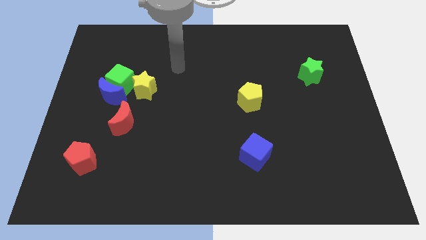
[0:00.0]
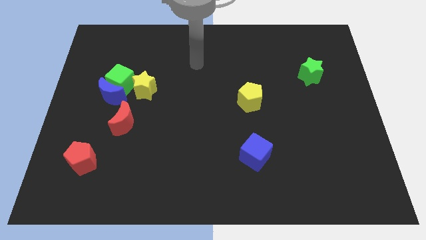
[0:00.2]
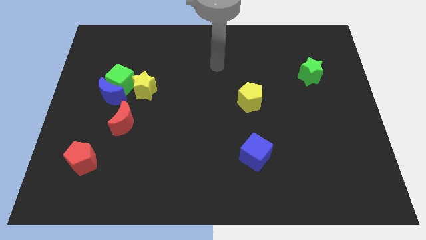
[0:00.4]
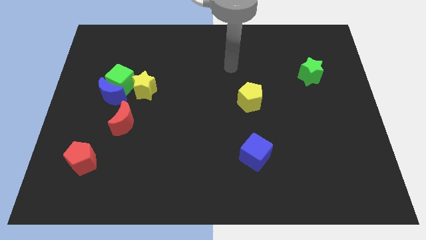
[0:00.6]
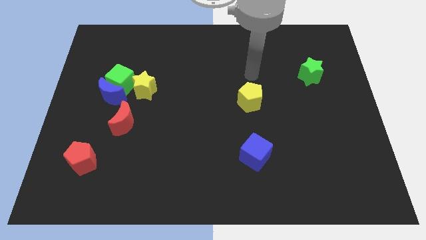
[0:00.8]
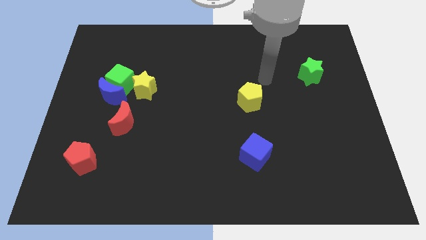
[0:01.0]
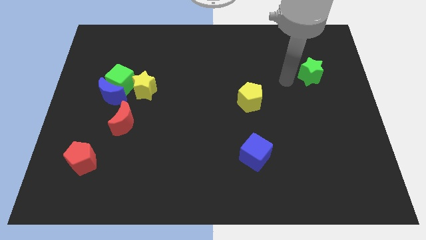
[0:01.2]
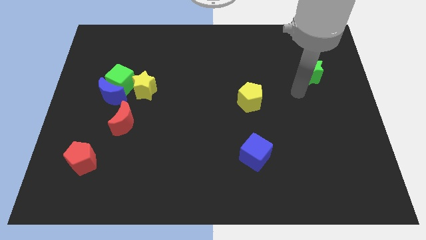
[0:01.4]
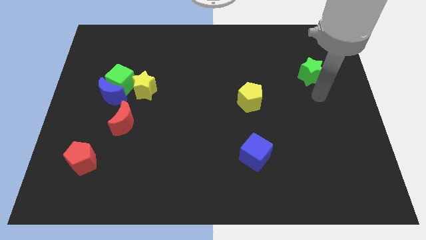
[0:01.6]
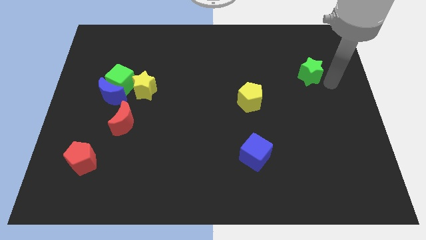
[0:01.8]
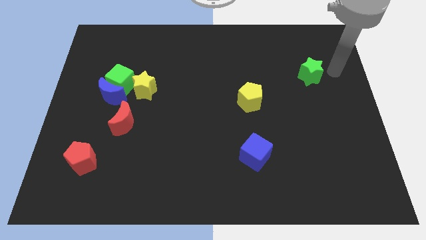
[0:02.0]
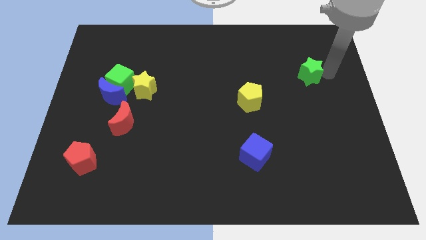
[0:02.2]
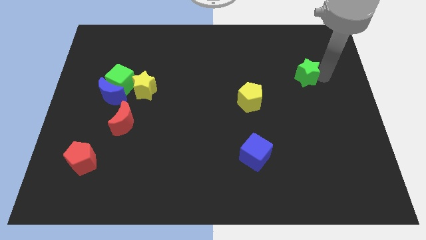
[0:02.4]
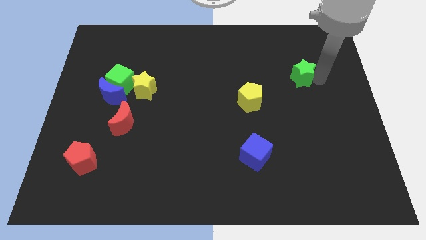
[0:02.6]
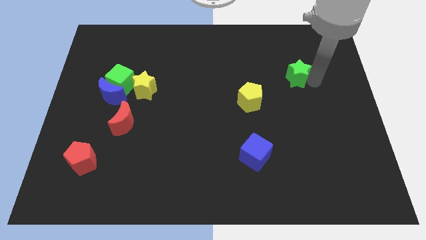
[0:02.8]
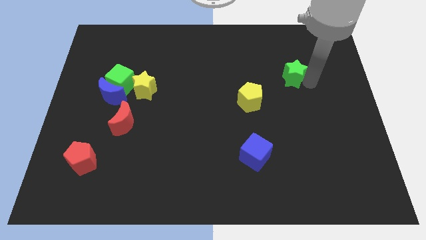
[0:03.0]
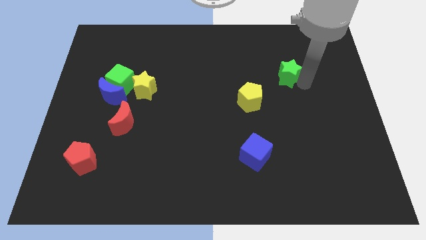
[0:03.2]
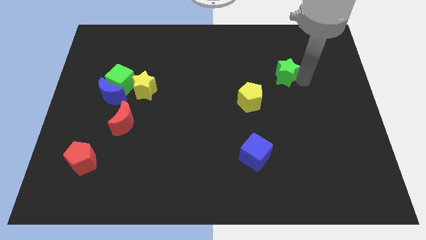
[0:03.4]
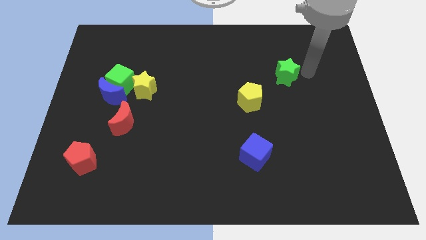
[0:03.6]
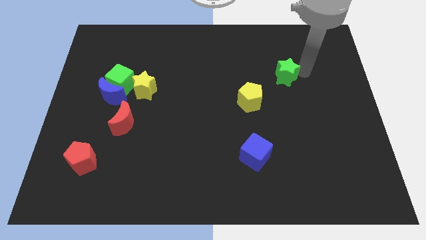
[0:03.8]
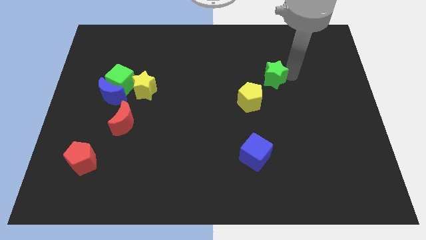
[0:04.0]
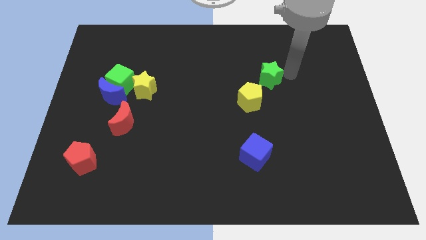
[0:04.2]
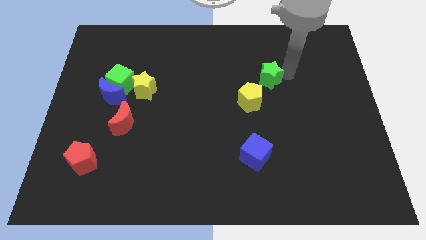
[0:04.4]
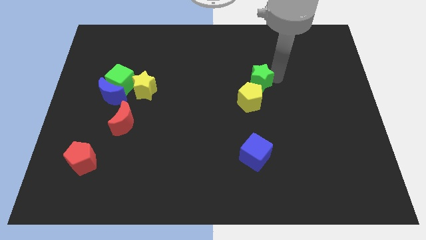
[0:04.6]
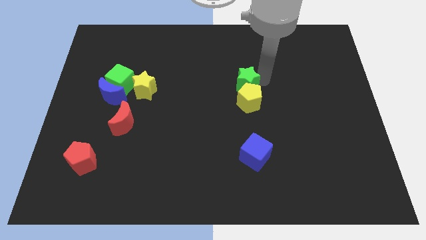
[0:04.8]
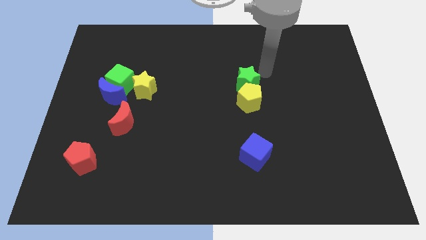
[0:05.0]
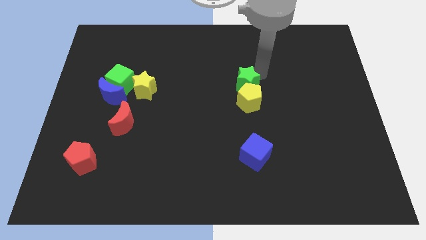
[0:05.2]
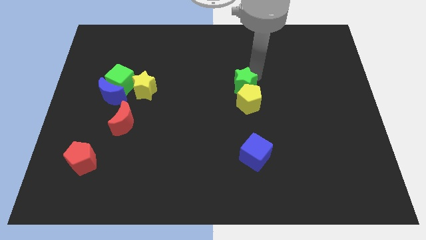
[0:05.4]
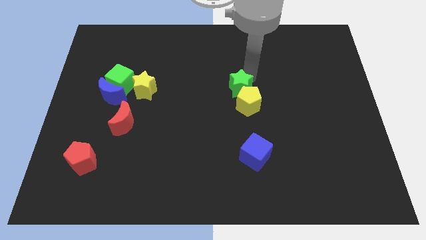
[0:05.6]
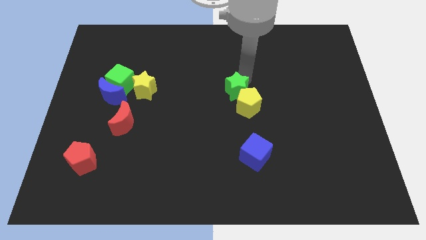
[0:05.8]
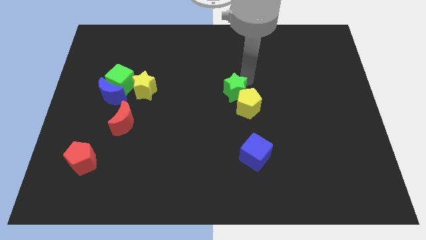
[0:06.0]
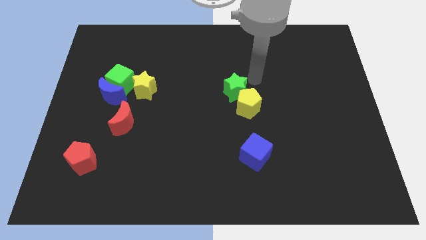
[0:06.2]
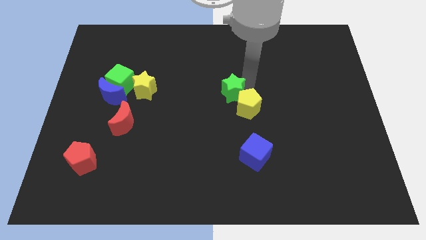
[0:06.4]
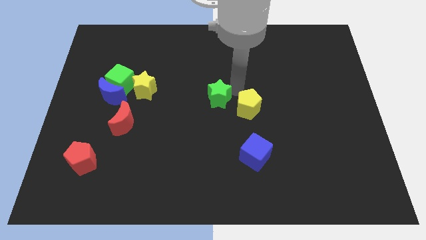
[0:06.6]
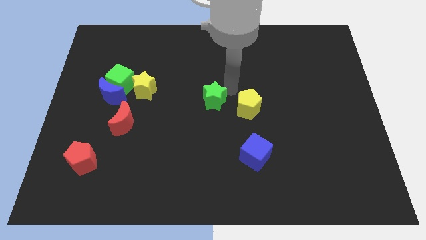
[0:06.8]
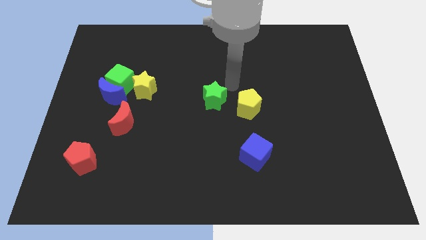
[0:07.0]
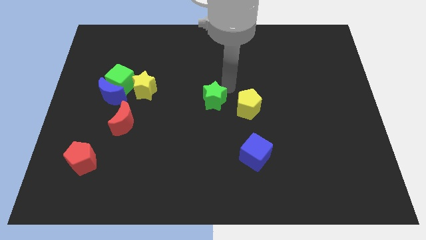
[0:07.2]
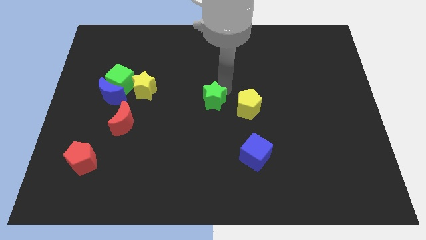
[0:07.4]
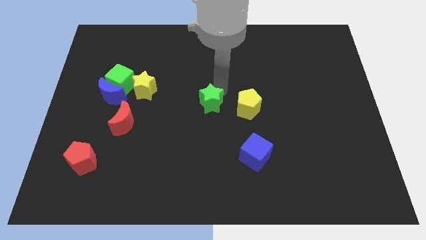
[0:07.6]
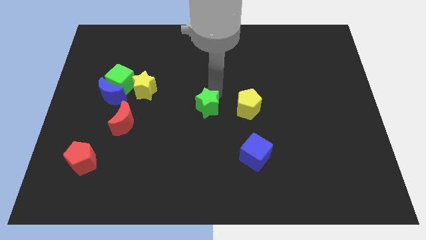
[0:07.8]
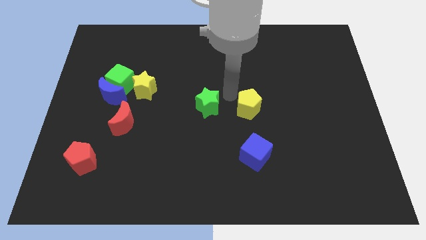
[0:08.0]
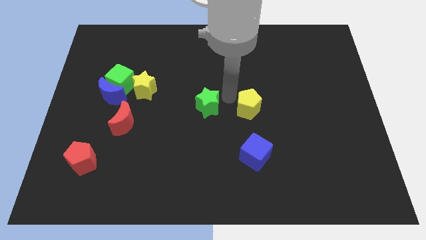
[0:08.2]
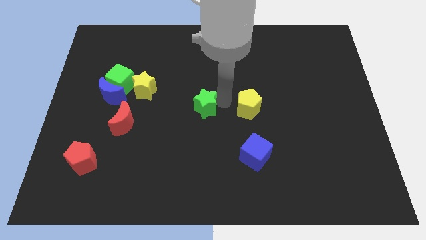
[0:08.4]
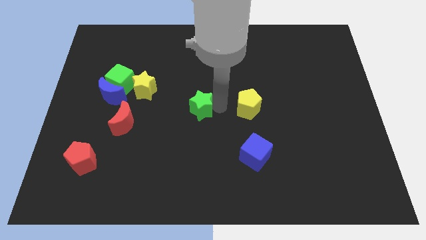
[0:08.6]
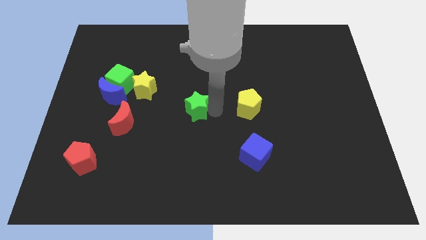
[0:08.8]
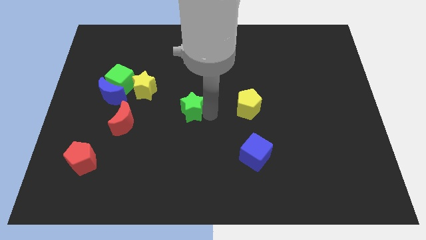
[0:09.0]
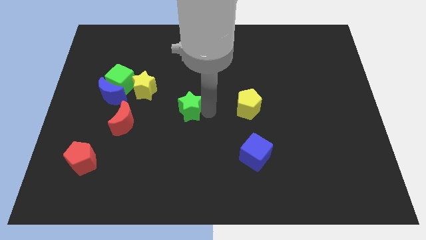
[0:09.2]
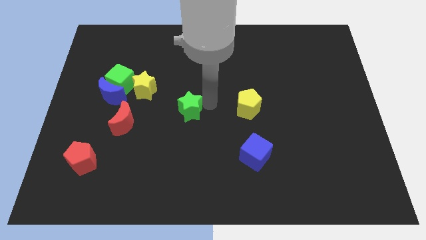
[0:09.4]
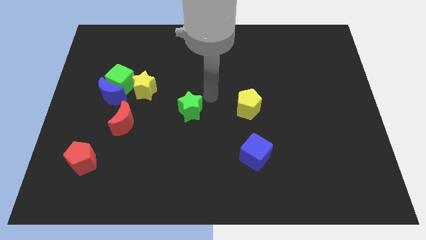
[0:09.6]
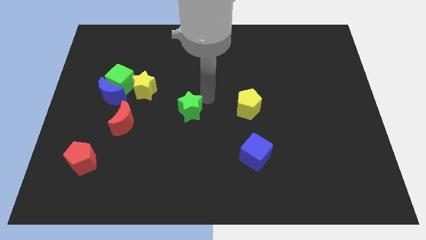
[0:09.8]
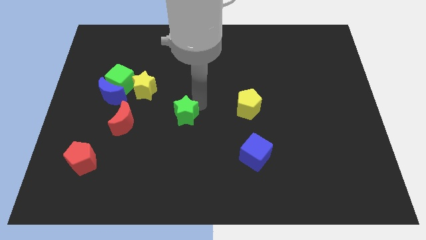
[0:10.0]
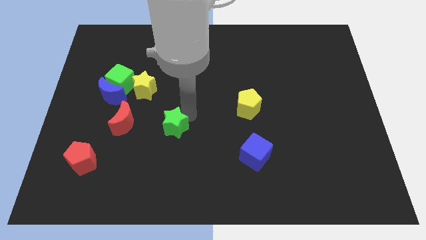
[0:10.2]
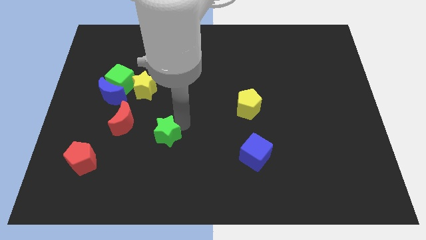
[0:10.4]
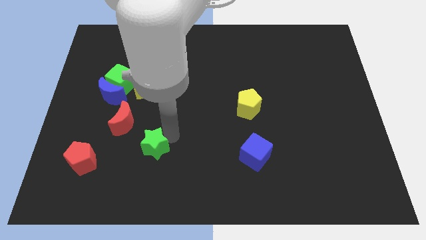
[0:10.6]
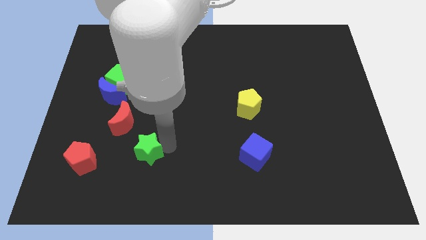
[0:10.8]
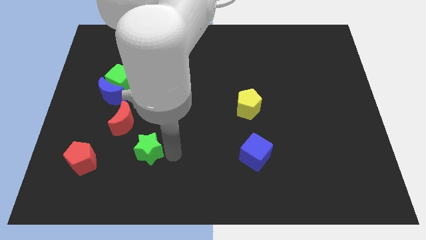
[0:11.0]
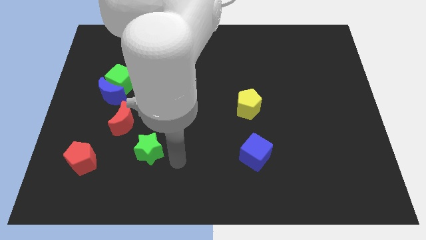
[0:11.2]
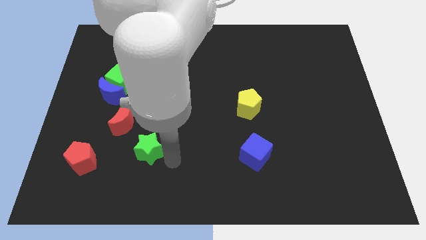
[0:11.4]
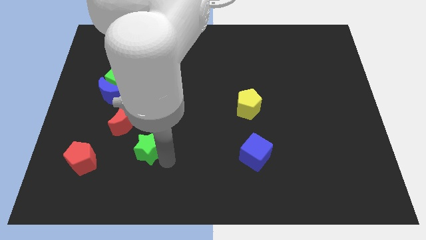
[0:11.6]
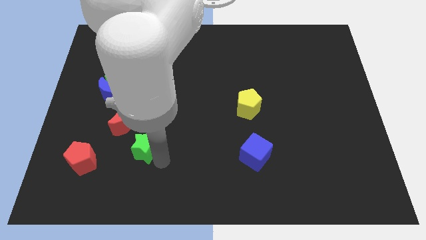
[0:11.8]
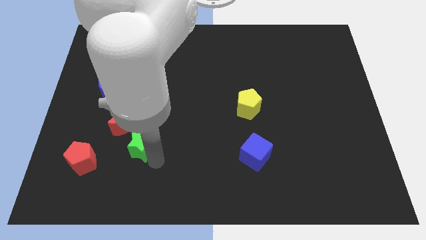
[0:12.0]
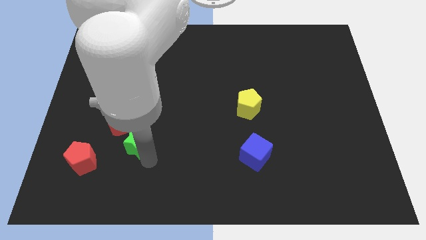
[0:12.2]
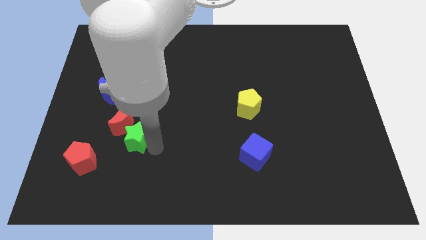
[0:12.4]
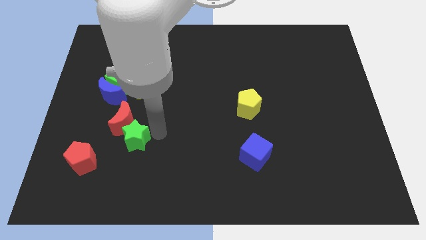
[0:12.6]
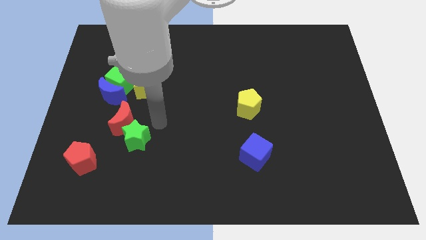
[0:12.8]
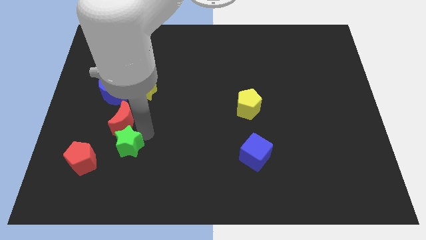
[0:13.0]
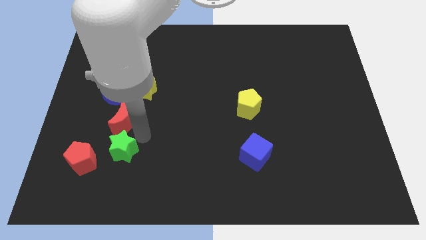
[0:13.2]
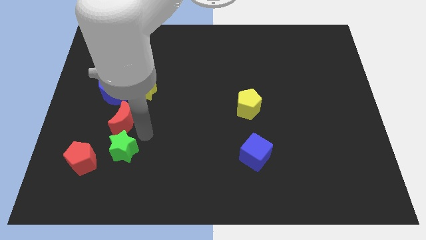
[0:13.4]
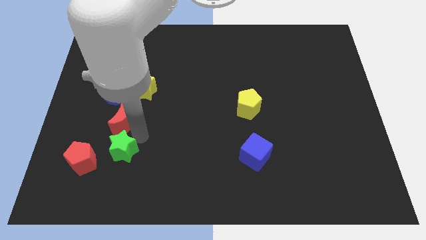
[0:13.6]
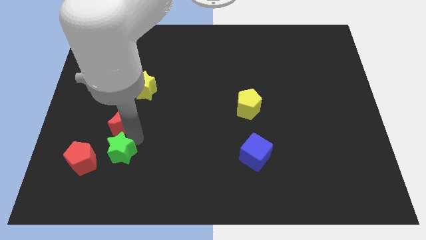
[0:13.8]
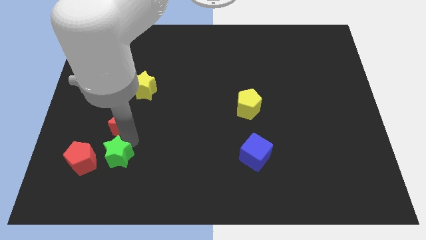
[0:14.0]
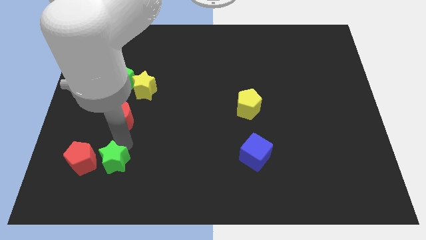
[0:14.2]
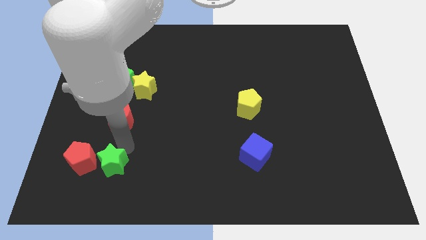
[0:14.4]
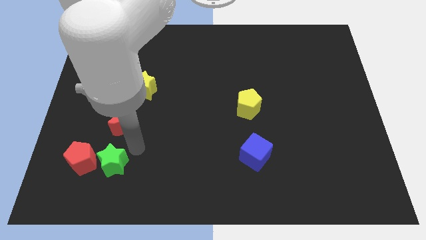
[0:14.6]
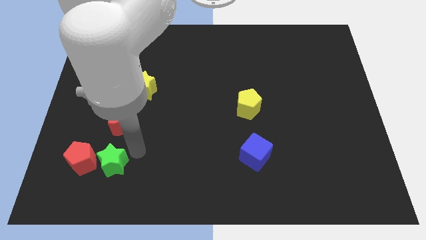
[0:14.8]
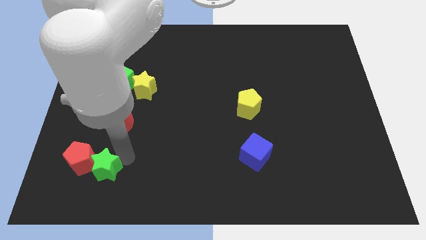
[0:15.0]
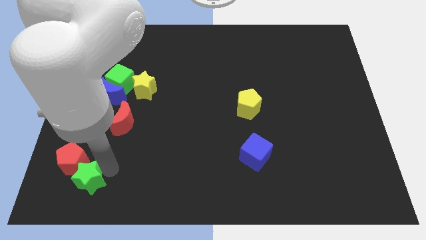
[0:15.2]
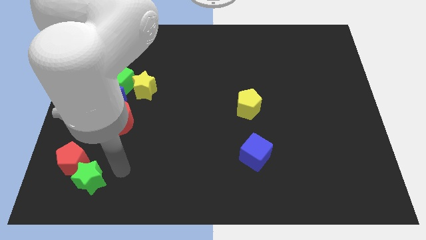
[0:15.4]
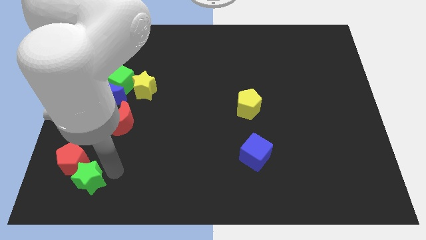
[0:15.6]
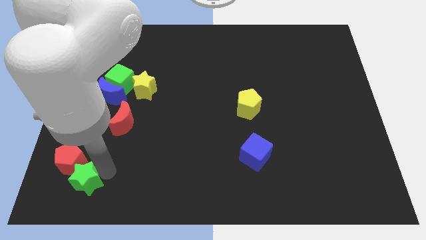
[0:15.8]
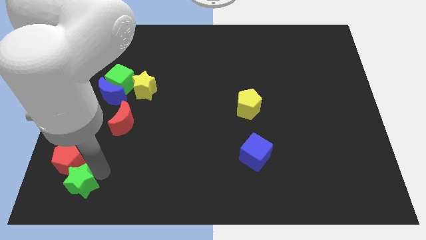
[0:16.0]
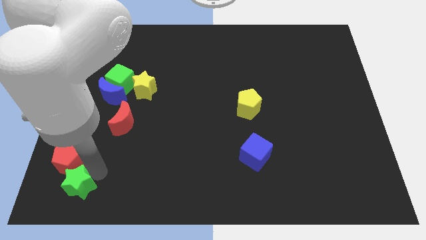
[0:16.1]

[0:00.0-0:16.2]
slide the green star to the bottom left corner
